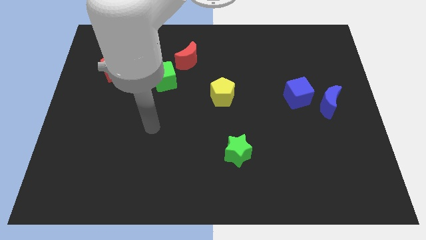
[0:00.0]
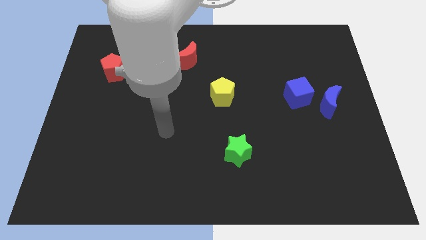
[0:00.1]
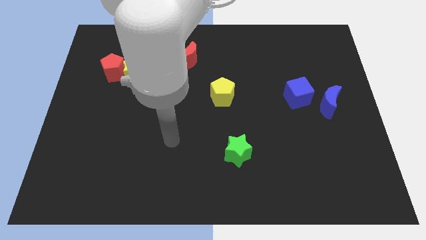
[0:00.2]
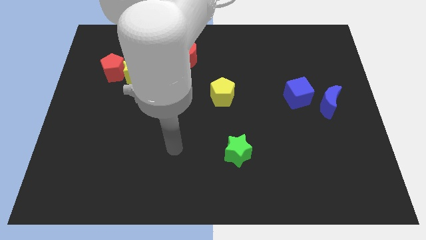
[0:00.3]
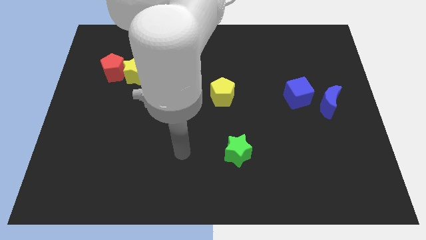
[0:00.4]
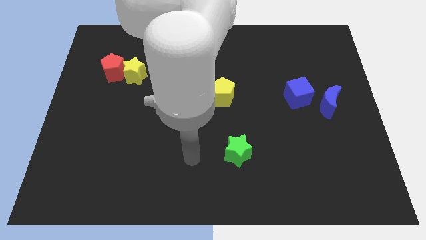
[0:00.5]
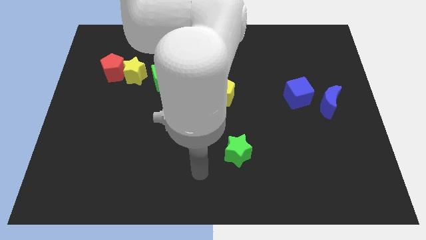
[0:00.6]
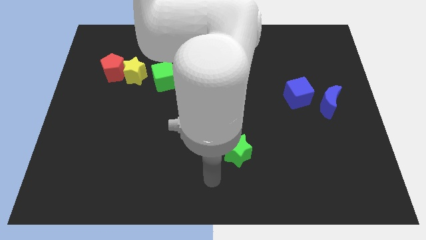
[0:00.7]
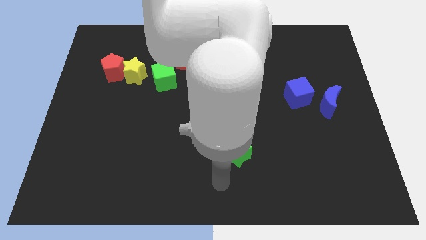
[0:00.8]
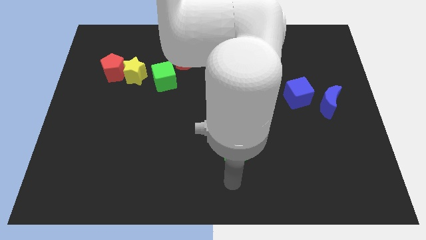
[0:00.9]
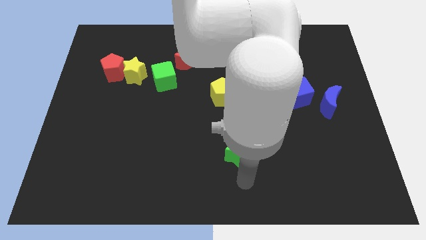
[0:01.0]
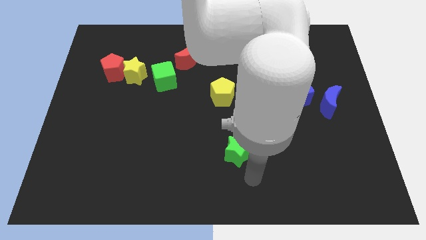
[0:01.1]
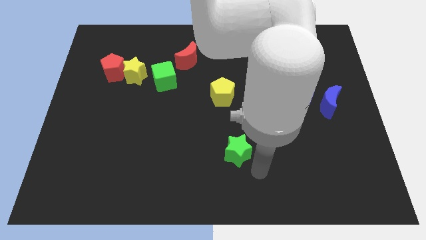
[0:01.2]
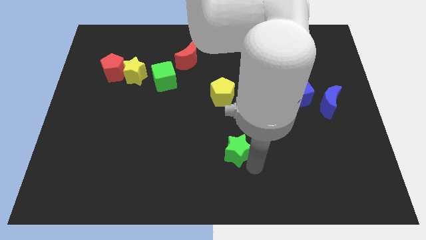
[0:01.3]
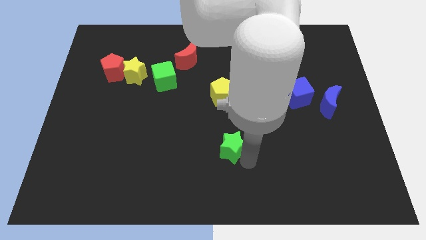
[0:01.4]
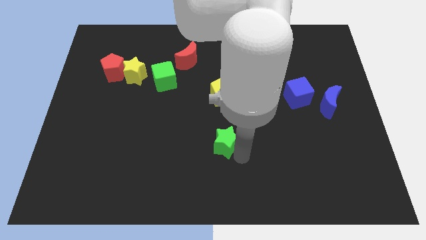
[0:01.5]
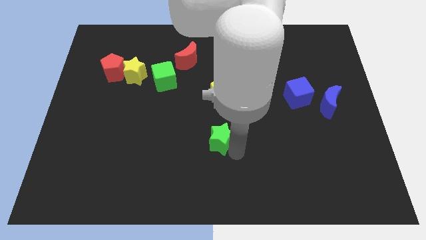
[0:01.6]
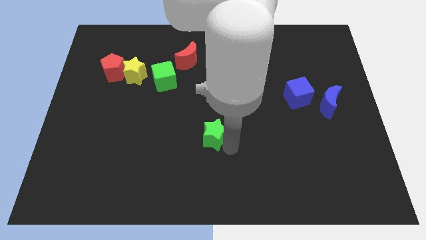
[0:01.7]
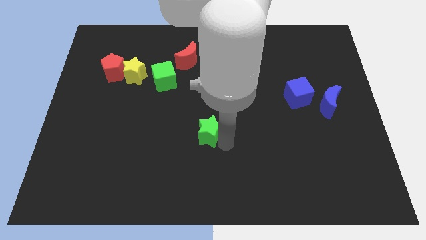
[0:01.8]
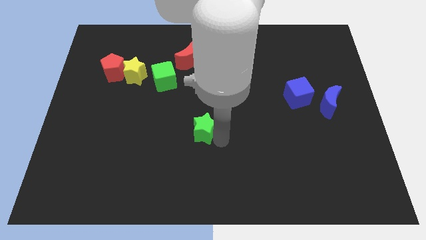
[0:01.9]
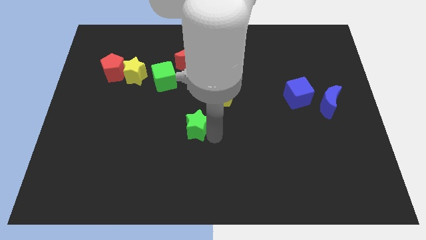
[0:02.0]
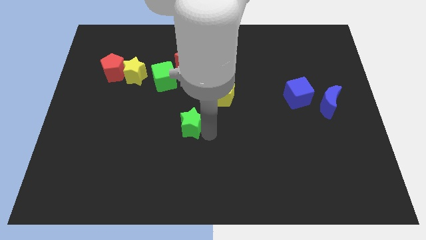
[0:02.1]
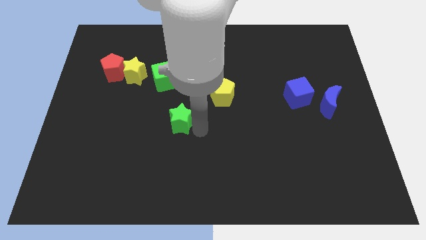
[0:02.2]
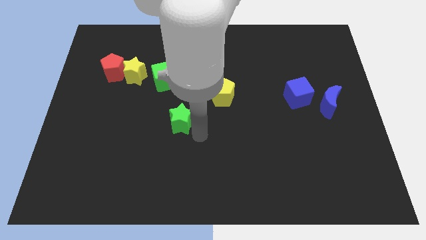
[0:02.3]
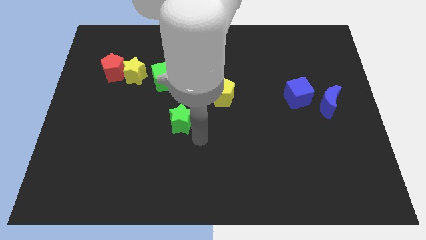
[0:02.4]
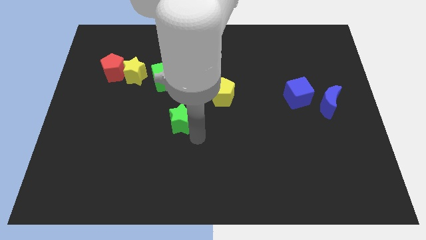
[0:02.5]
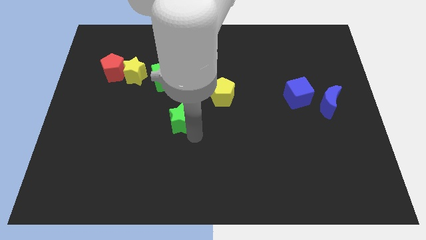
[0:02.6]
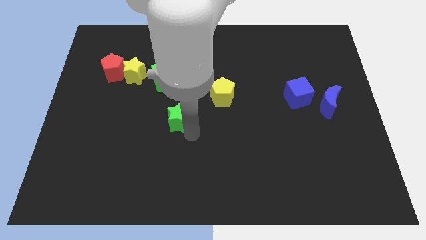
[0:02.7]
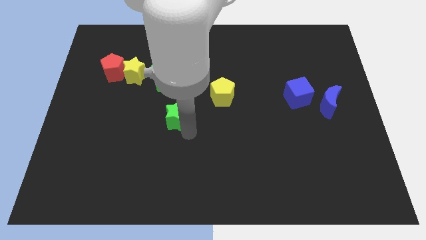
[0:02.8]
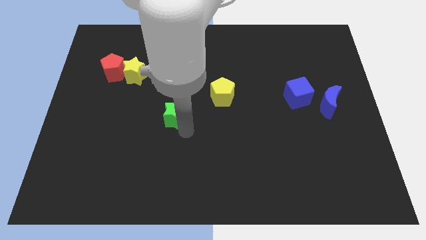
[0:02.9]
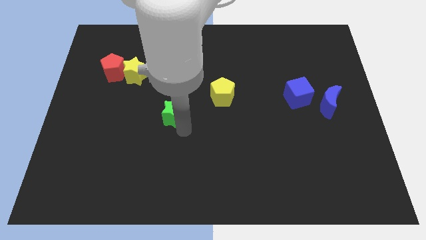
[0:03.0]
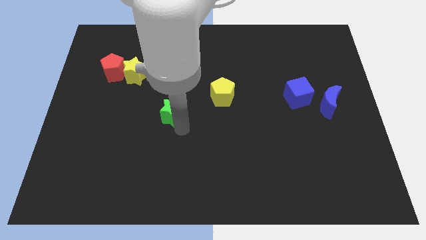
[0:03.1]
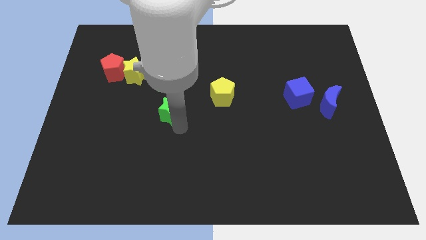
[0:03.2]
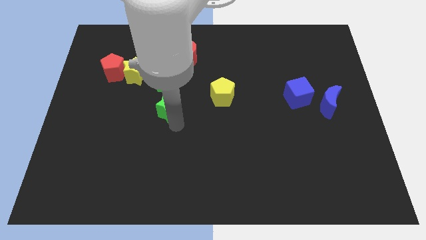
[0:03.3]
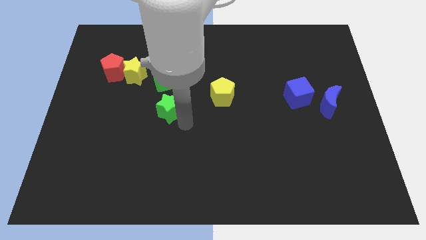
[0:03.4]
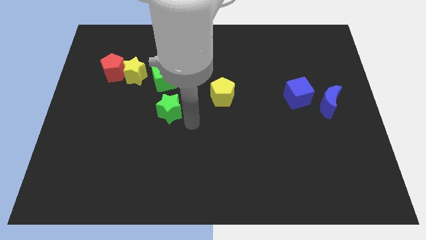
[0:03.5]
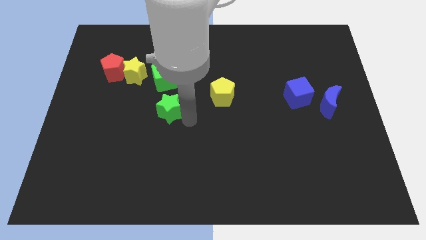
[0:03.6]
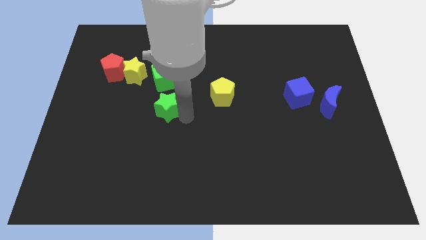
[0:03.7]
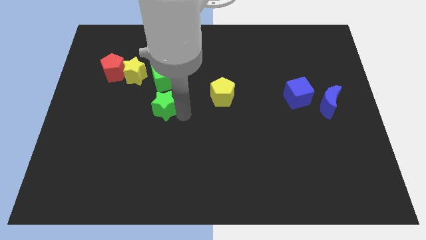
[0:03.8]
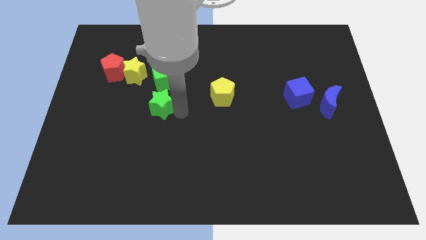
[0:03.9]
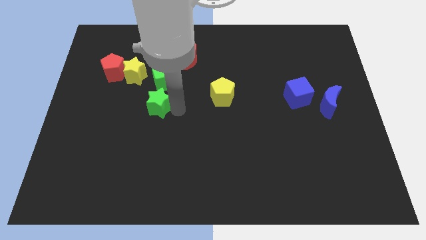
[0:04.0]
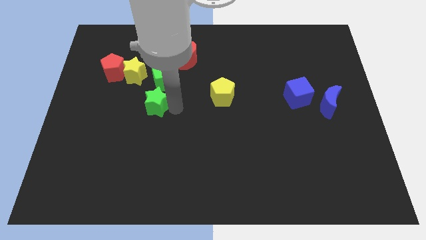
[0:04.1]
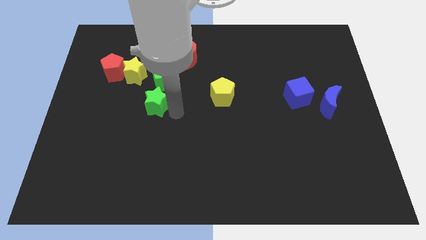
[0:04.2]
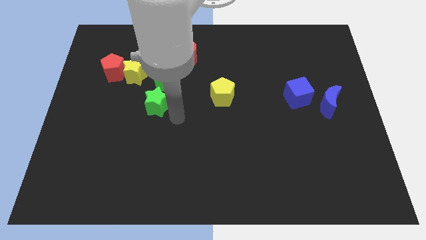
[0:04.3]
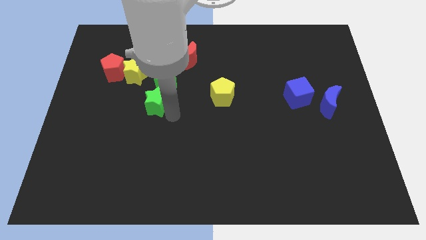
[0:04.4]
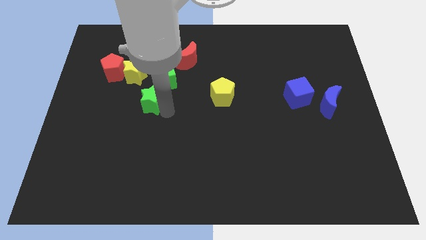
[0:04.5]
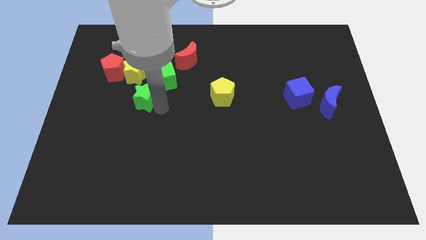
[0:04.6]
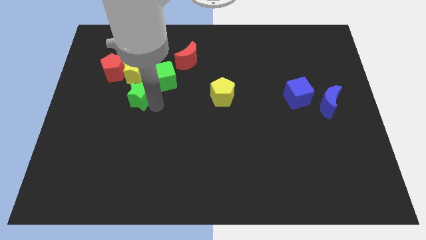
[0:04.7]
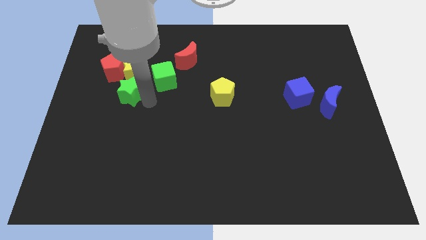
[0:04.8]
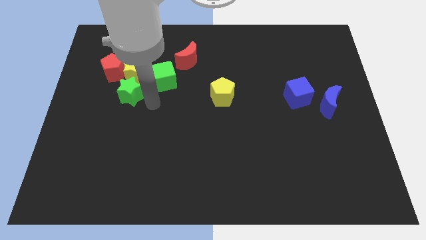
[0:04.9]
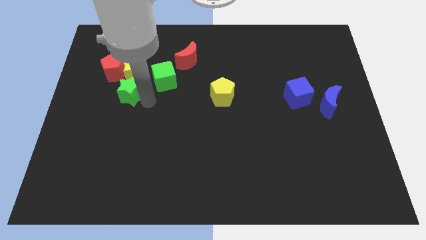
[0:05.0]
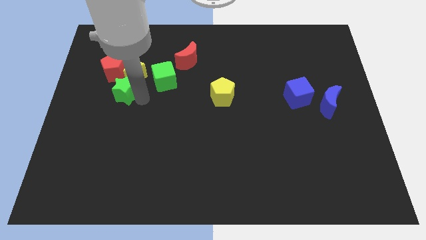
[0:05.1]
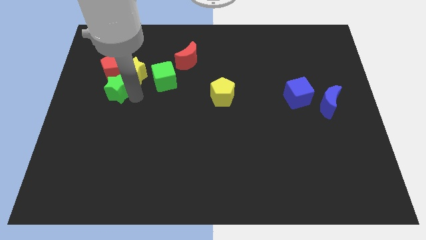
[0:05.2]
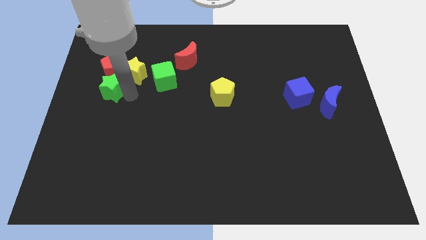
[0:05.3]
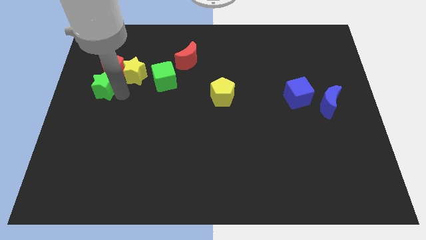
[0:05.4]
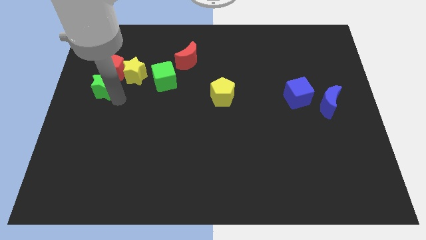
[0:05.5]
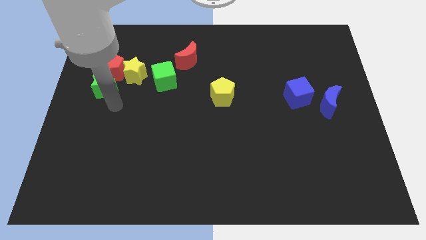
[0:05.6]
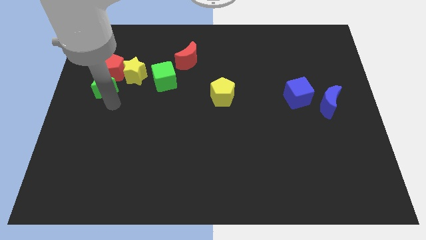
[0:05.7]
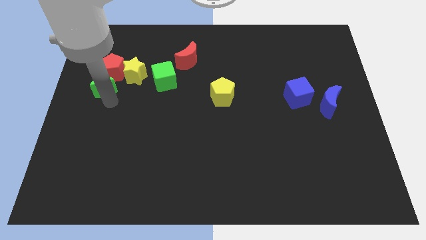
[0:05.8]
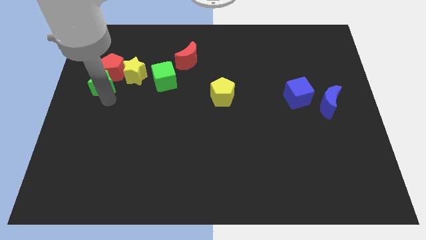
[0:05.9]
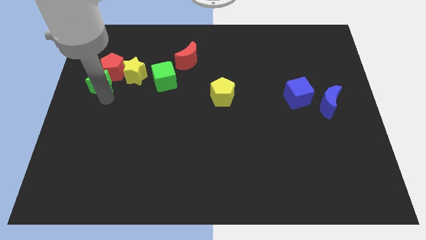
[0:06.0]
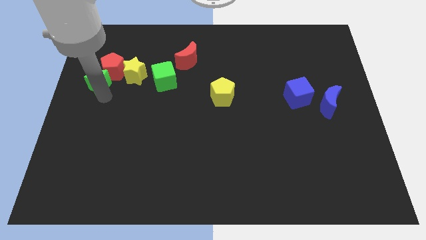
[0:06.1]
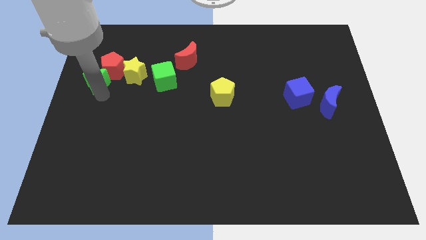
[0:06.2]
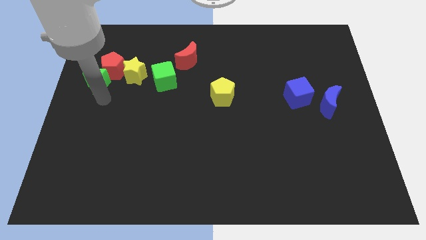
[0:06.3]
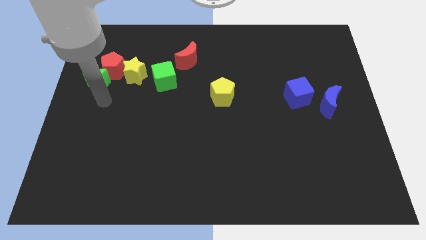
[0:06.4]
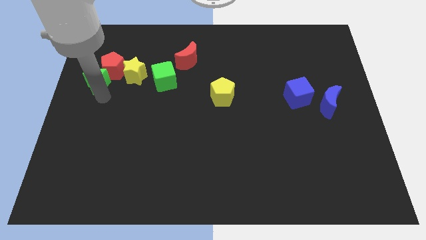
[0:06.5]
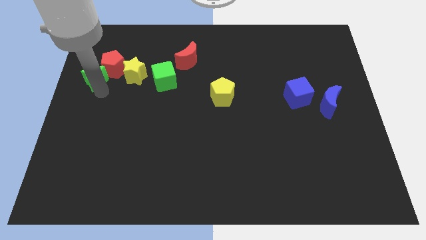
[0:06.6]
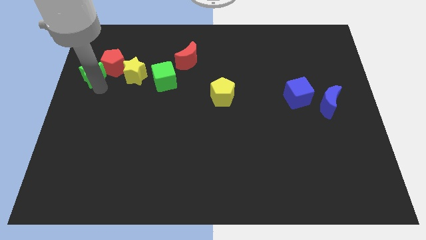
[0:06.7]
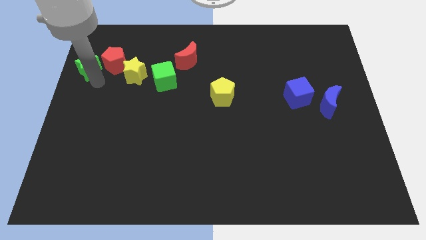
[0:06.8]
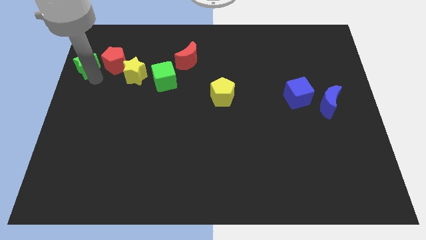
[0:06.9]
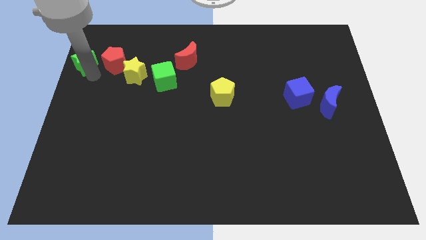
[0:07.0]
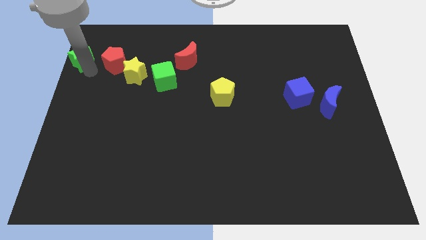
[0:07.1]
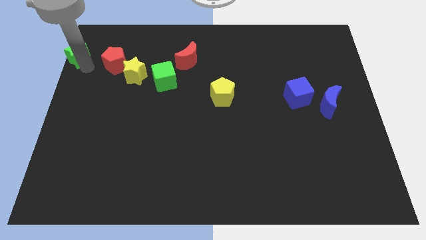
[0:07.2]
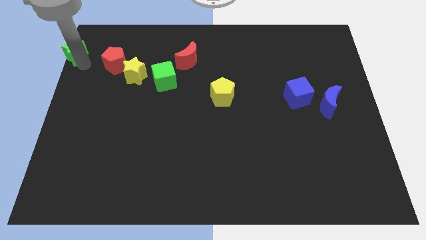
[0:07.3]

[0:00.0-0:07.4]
put the green star to the top left corner
